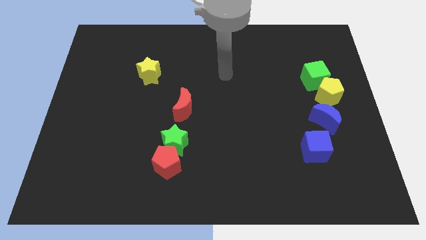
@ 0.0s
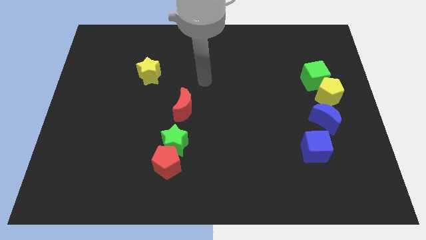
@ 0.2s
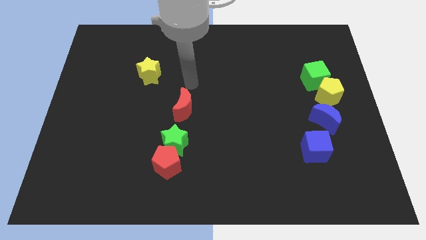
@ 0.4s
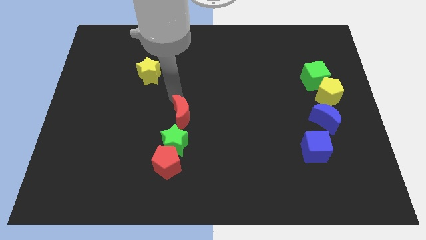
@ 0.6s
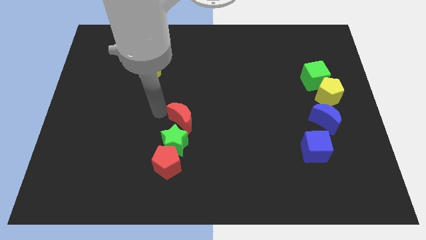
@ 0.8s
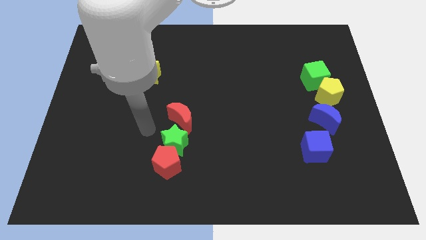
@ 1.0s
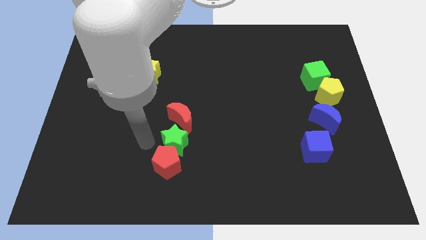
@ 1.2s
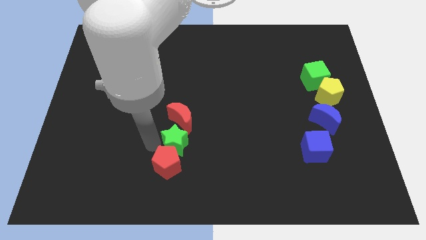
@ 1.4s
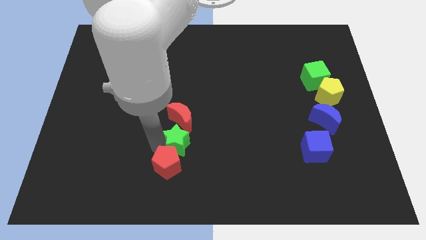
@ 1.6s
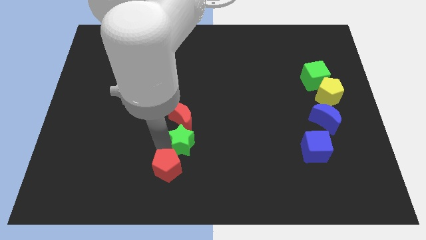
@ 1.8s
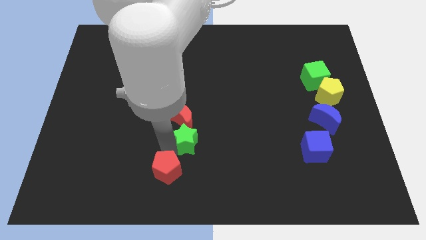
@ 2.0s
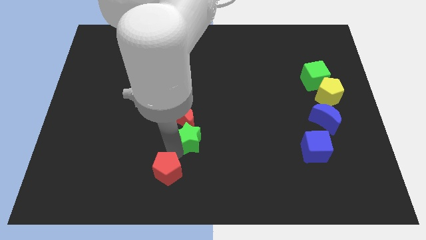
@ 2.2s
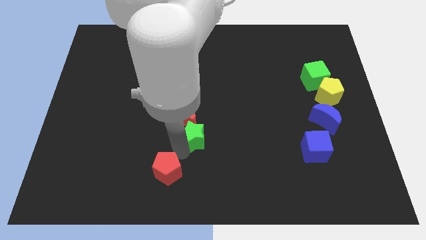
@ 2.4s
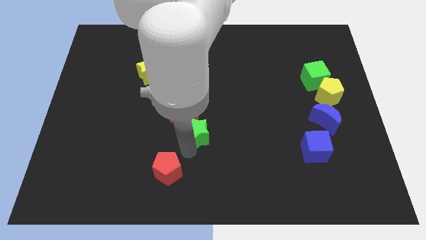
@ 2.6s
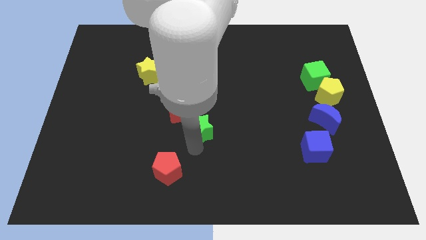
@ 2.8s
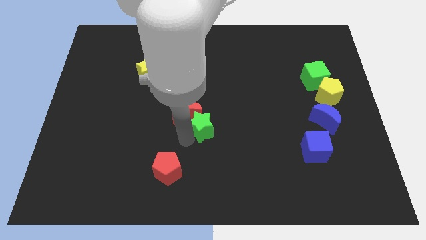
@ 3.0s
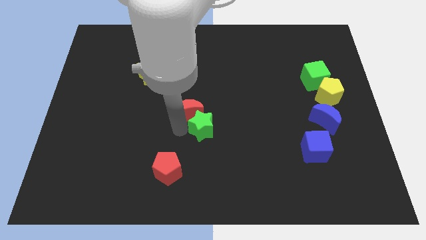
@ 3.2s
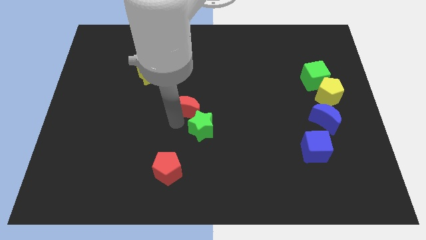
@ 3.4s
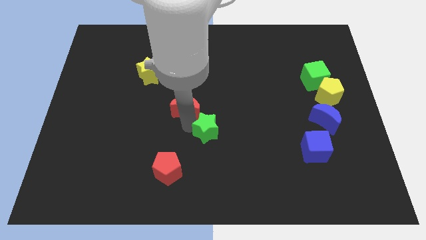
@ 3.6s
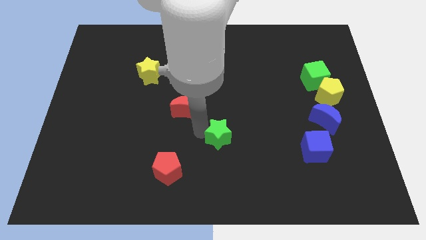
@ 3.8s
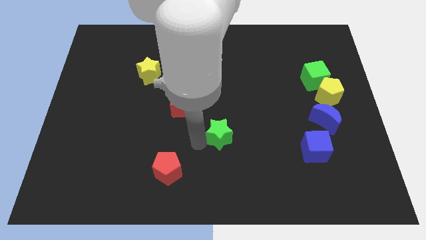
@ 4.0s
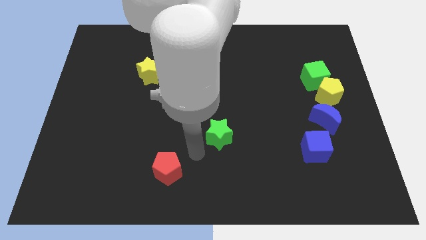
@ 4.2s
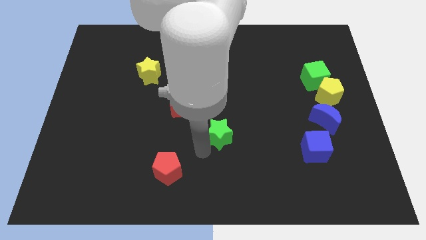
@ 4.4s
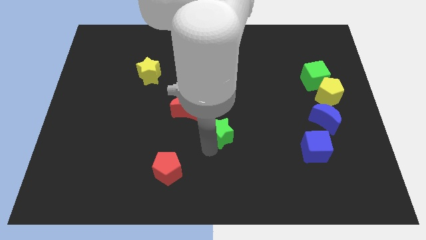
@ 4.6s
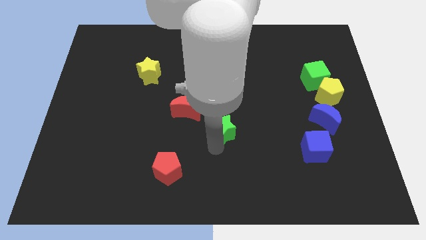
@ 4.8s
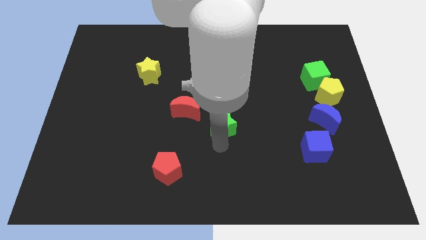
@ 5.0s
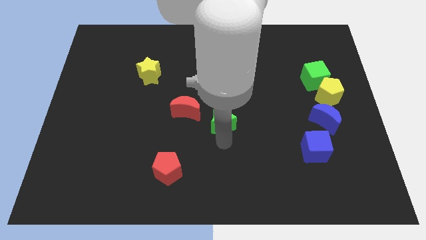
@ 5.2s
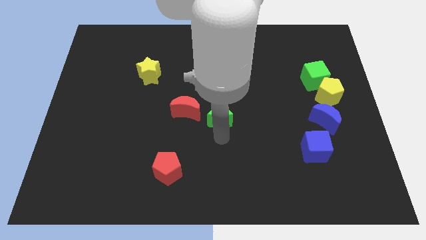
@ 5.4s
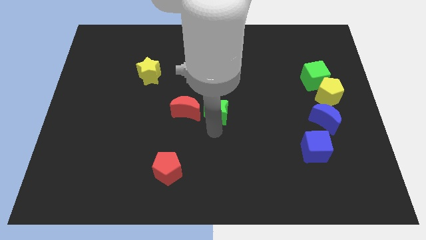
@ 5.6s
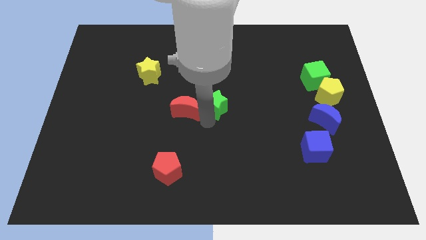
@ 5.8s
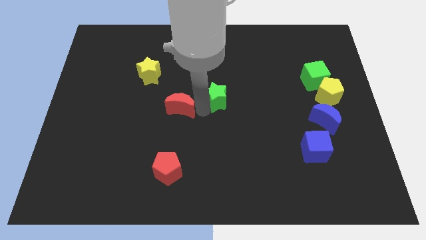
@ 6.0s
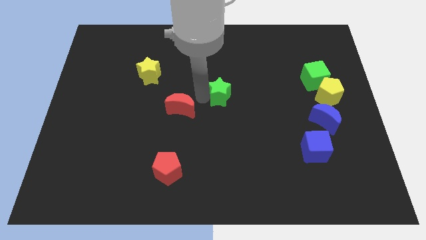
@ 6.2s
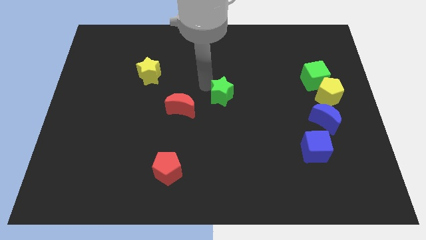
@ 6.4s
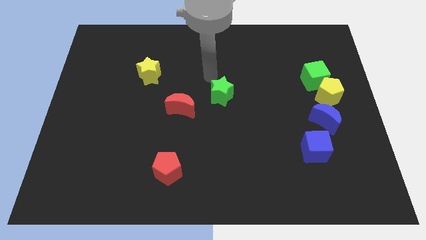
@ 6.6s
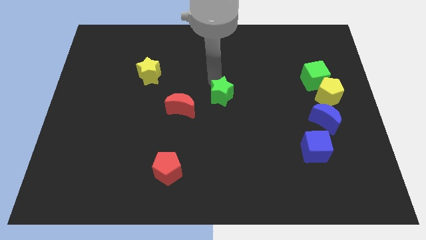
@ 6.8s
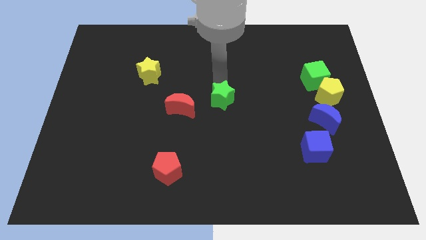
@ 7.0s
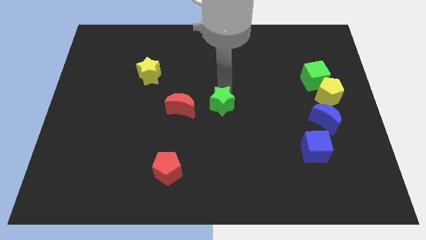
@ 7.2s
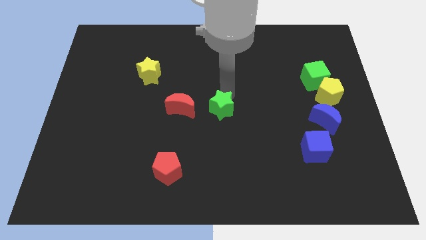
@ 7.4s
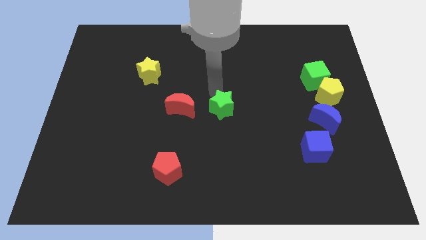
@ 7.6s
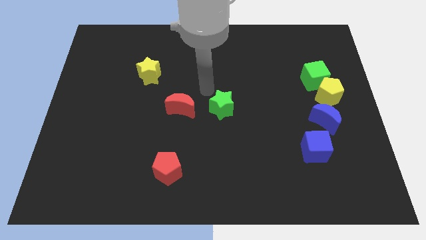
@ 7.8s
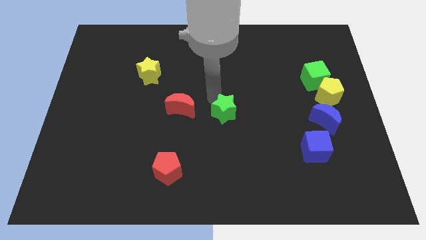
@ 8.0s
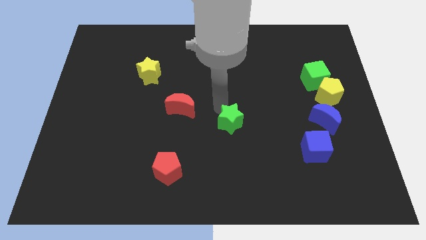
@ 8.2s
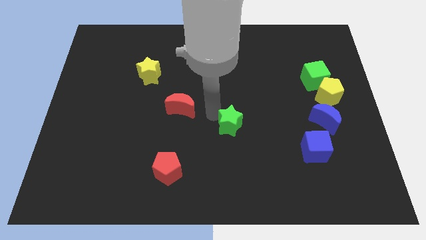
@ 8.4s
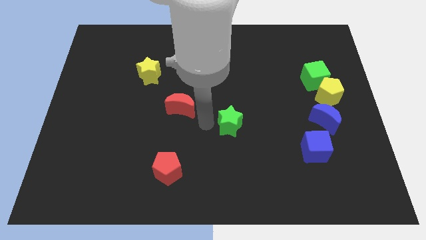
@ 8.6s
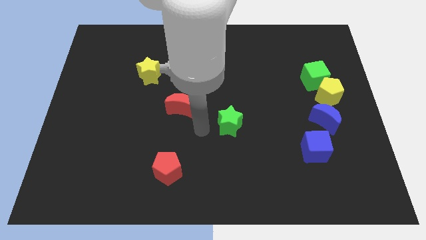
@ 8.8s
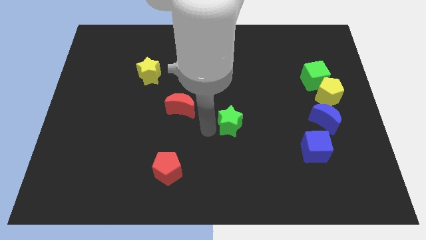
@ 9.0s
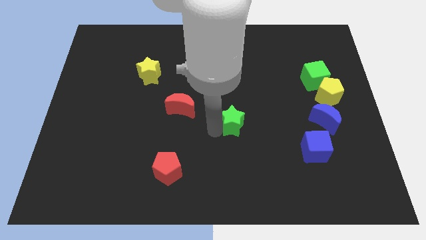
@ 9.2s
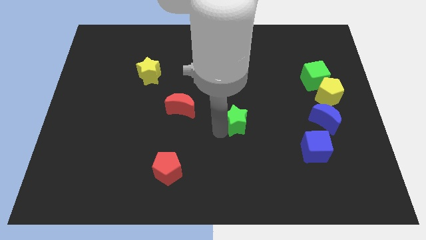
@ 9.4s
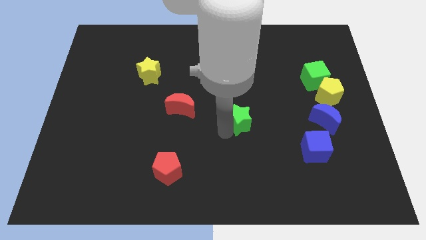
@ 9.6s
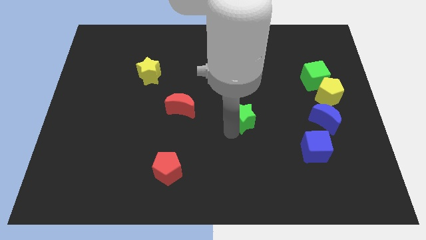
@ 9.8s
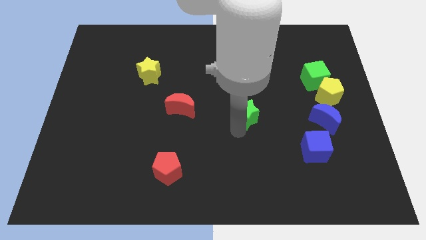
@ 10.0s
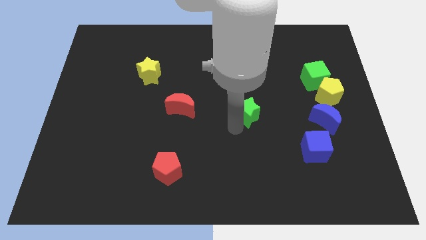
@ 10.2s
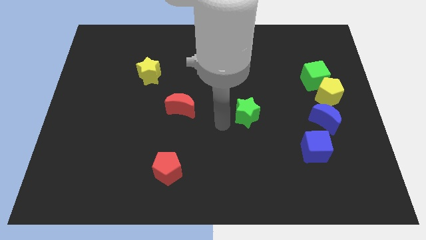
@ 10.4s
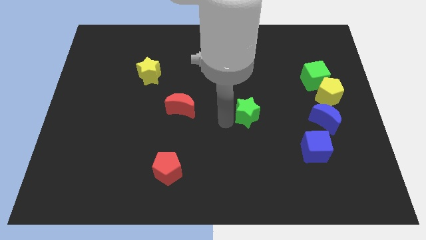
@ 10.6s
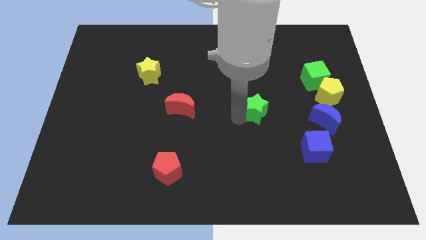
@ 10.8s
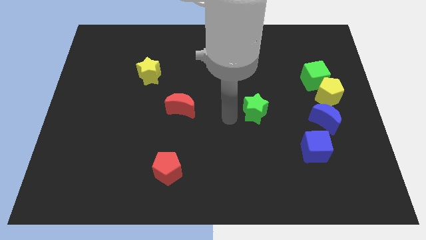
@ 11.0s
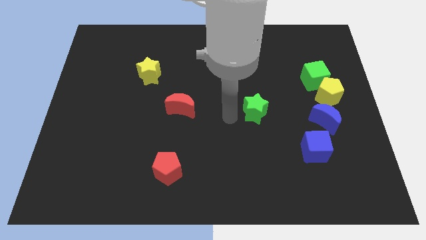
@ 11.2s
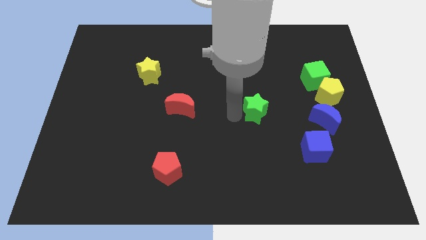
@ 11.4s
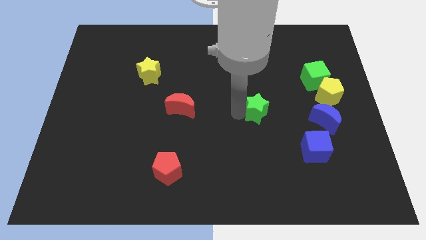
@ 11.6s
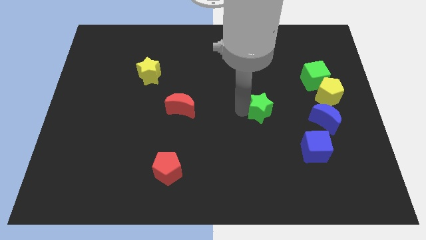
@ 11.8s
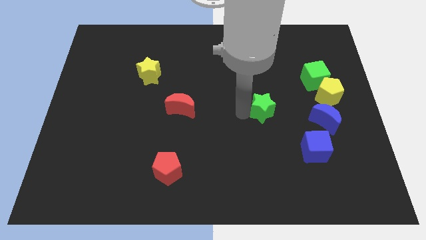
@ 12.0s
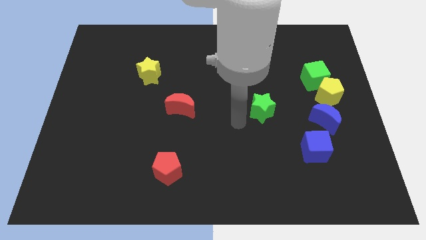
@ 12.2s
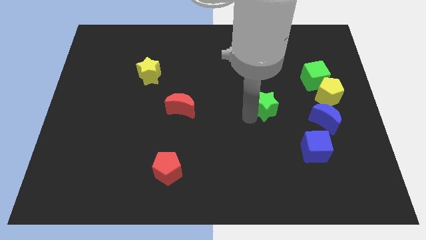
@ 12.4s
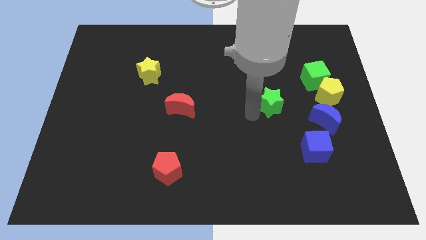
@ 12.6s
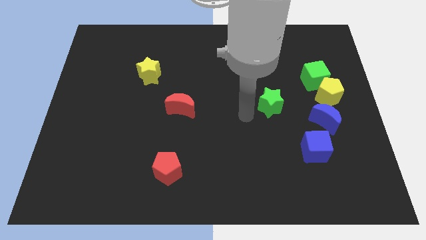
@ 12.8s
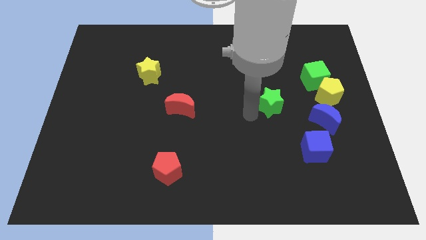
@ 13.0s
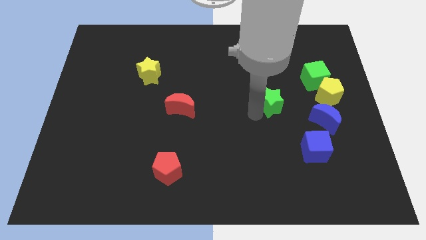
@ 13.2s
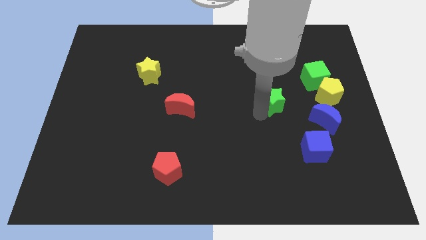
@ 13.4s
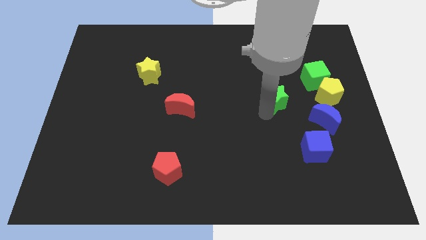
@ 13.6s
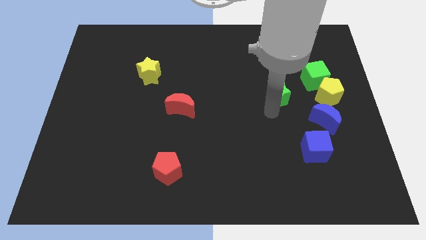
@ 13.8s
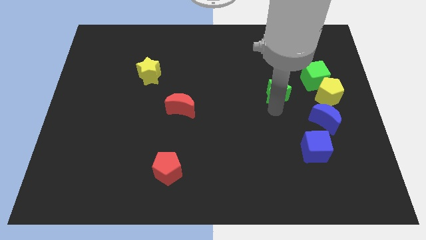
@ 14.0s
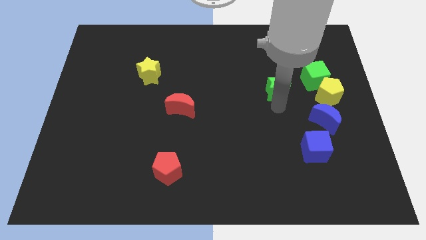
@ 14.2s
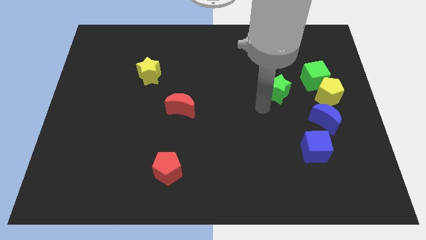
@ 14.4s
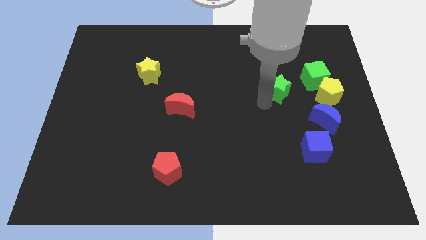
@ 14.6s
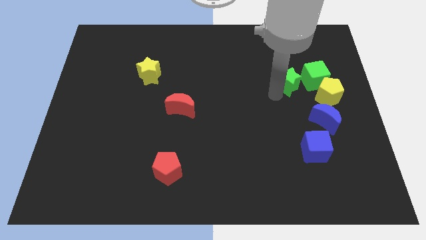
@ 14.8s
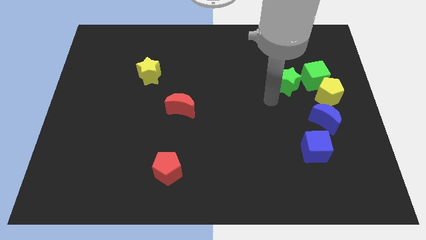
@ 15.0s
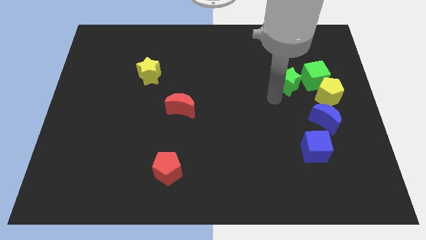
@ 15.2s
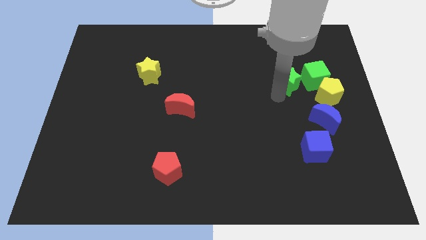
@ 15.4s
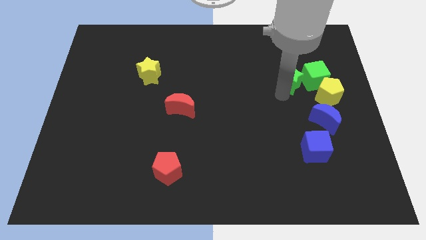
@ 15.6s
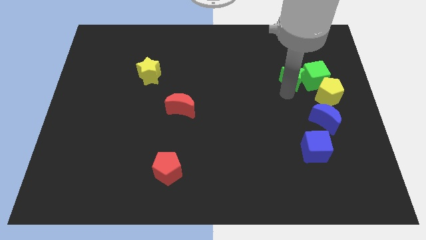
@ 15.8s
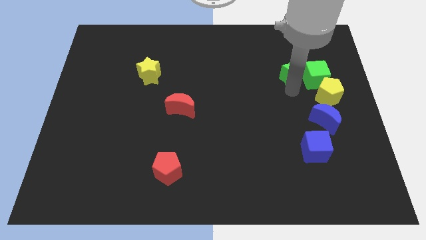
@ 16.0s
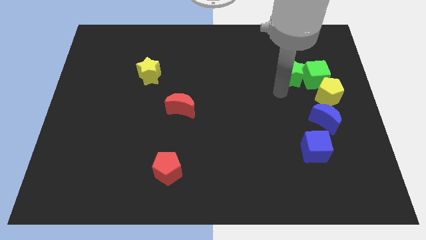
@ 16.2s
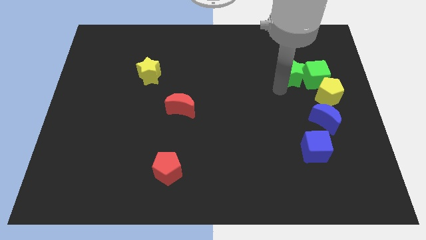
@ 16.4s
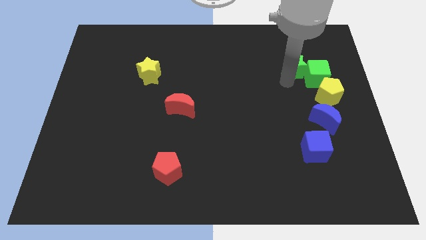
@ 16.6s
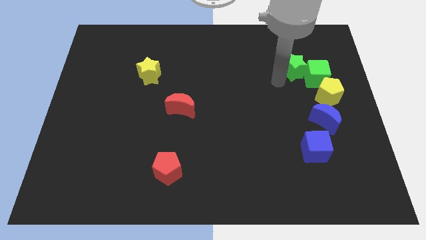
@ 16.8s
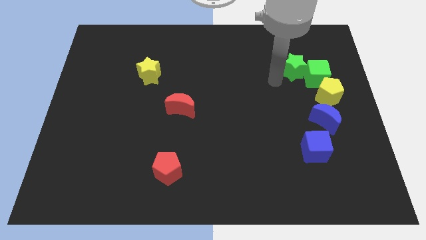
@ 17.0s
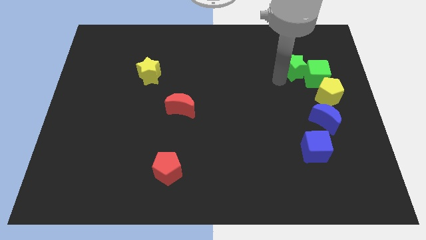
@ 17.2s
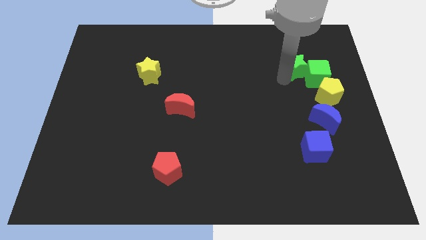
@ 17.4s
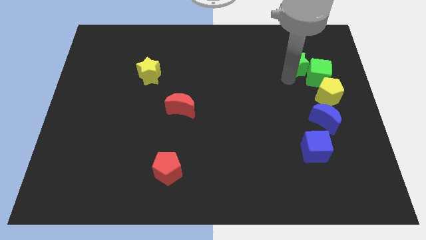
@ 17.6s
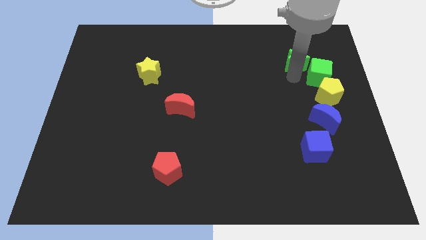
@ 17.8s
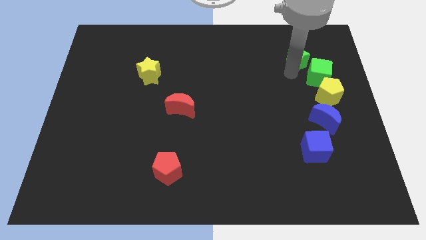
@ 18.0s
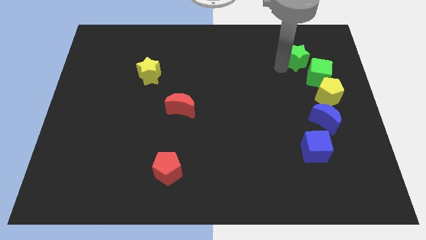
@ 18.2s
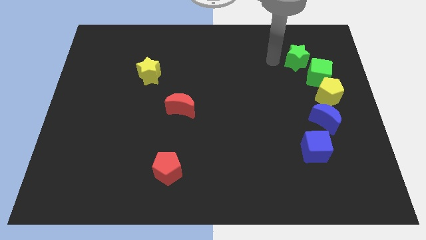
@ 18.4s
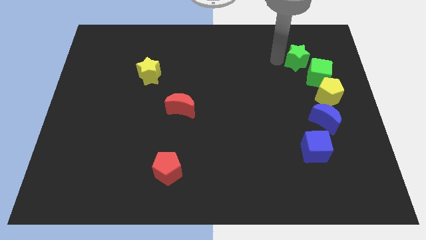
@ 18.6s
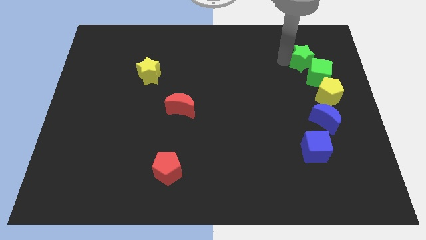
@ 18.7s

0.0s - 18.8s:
move the green star above the yellow pentagon
